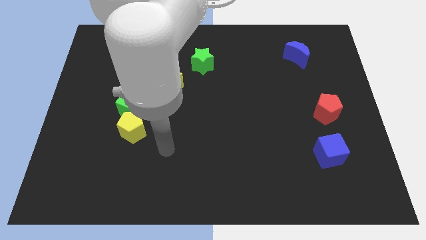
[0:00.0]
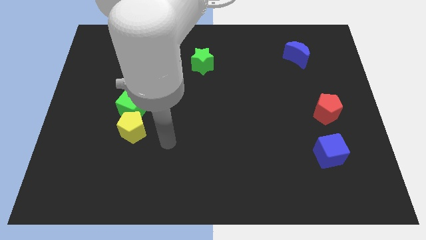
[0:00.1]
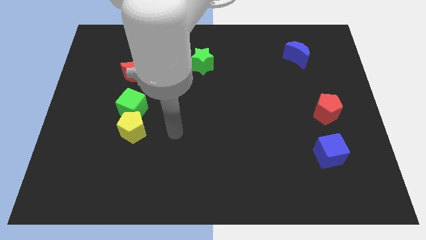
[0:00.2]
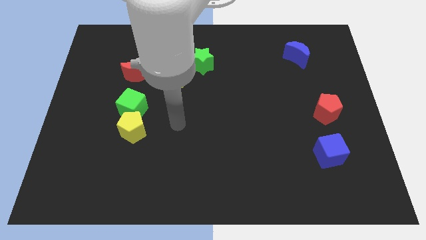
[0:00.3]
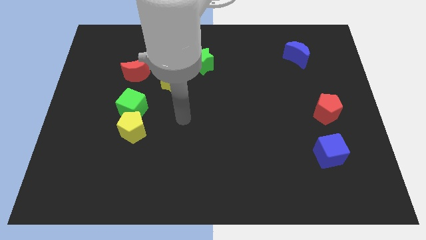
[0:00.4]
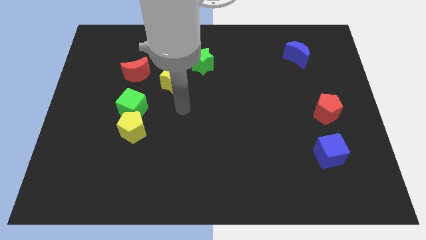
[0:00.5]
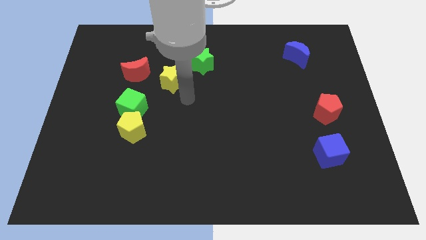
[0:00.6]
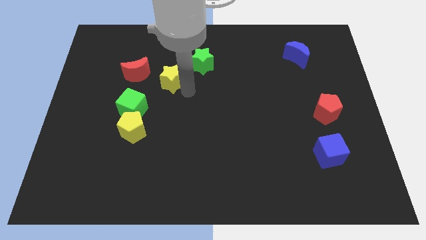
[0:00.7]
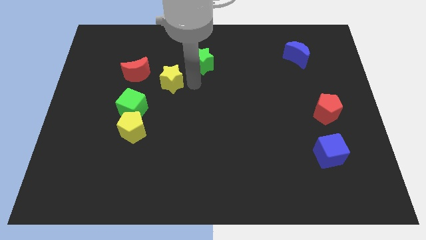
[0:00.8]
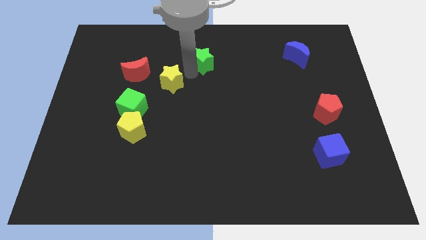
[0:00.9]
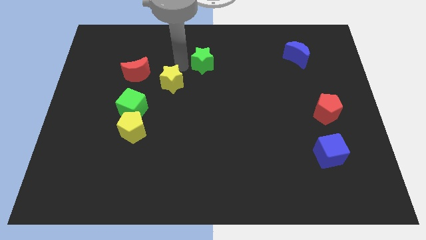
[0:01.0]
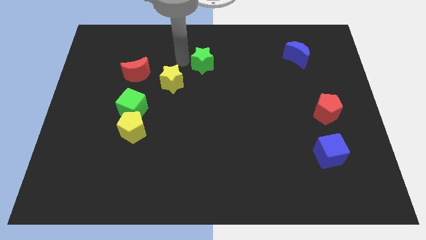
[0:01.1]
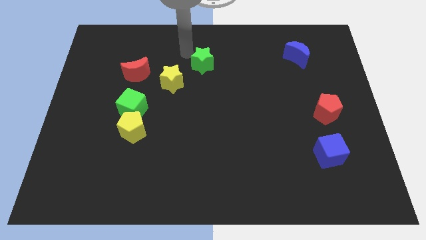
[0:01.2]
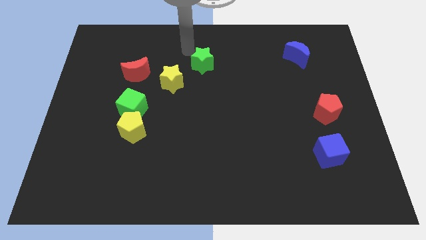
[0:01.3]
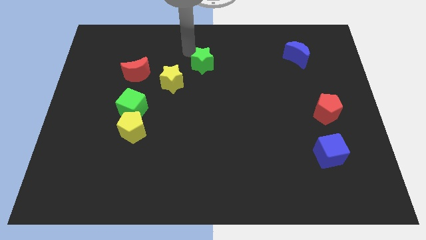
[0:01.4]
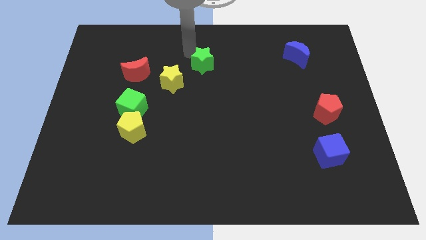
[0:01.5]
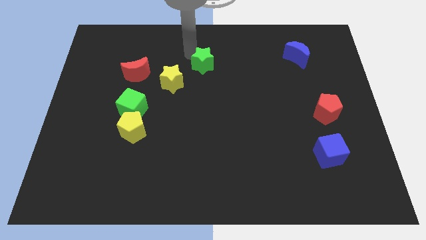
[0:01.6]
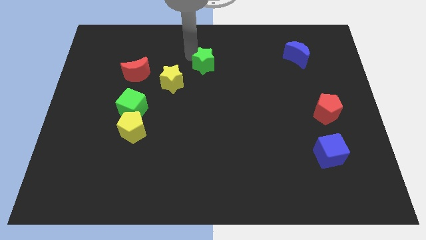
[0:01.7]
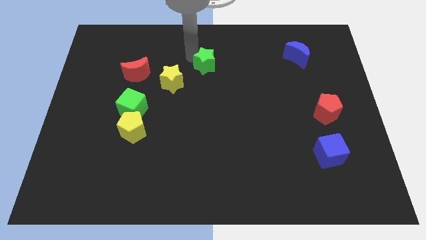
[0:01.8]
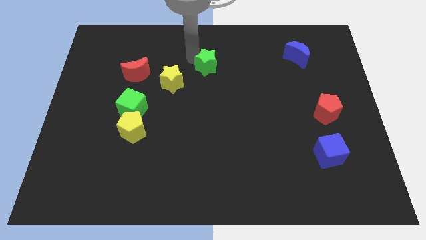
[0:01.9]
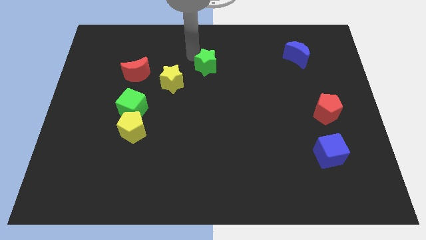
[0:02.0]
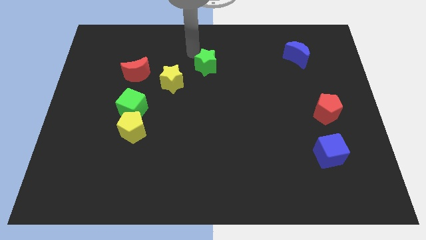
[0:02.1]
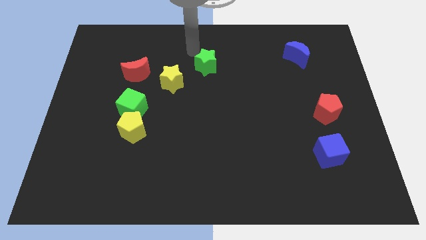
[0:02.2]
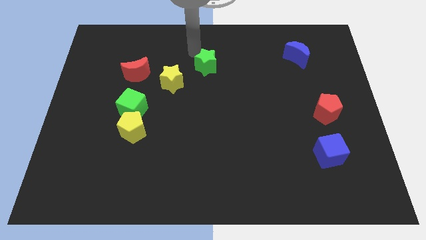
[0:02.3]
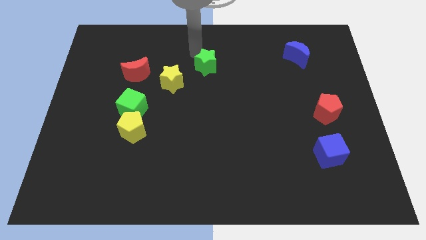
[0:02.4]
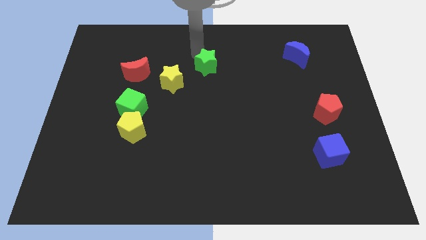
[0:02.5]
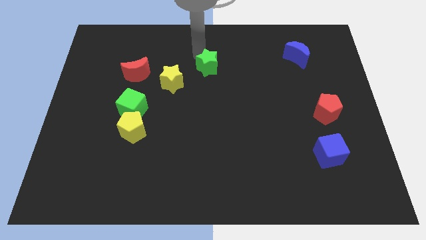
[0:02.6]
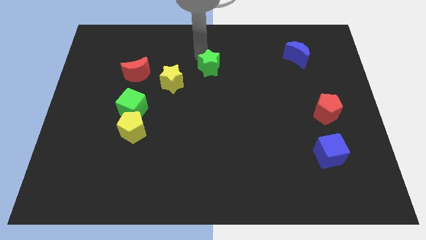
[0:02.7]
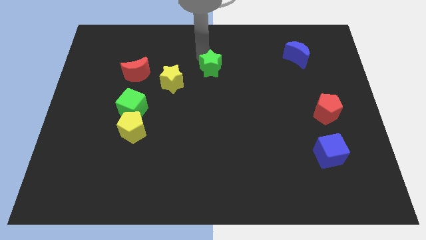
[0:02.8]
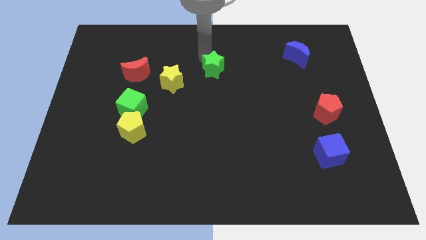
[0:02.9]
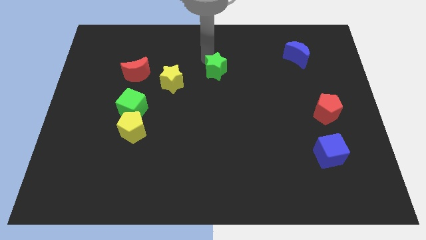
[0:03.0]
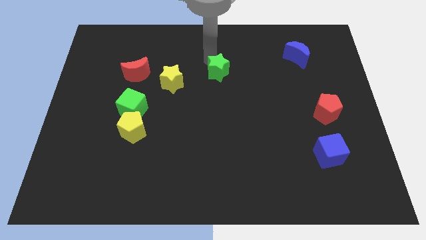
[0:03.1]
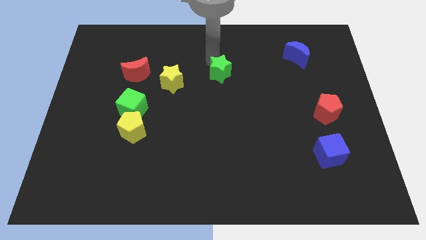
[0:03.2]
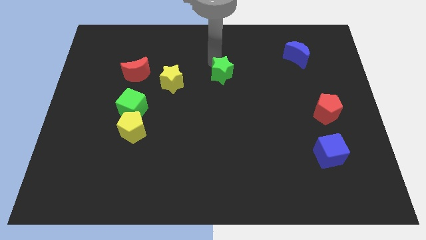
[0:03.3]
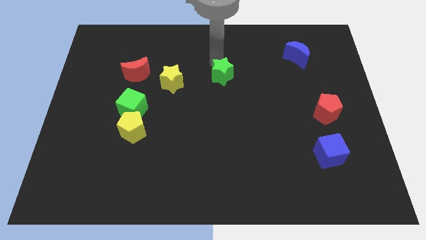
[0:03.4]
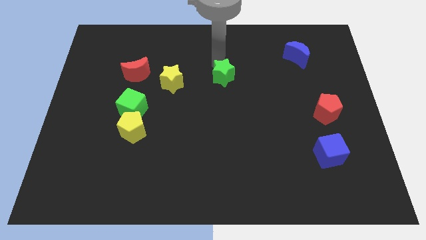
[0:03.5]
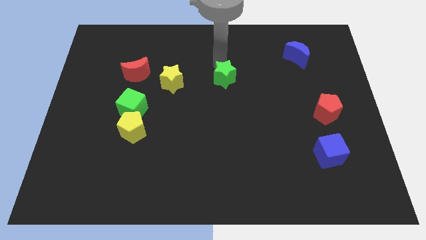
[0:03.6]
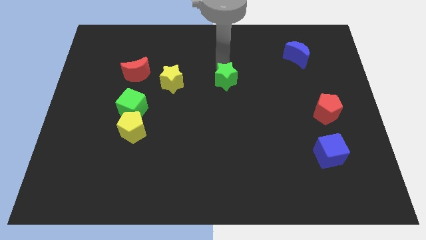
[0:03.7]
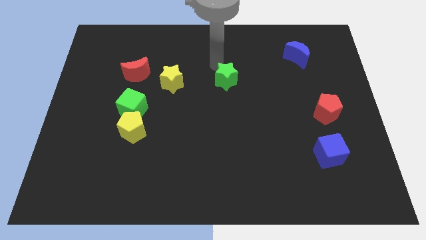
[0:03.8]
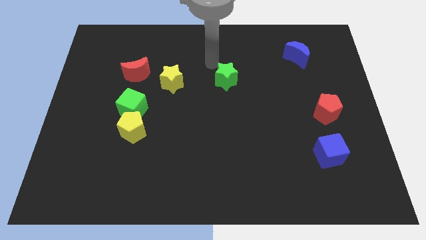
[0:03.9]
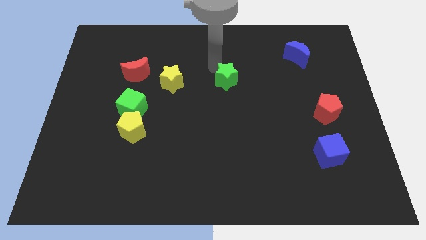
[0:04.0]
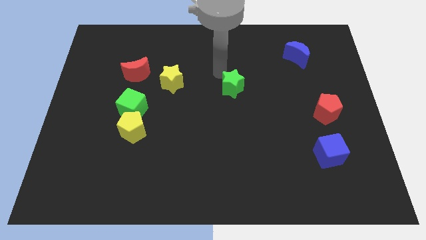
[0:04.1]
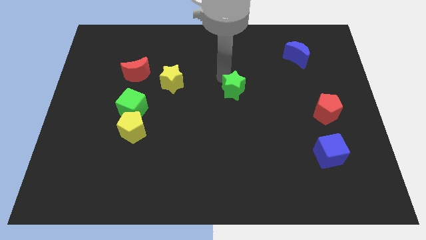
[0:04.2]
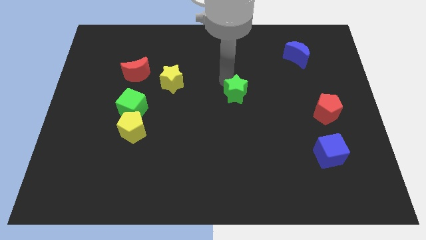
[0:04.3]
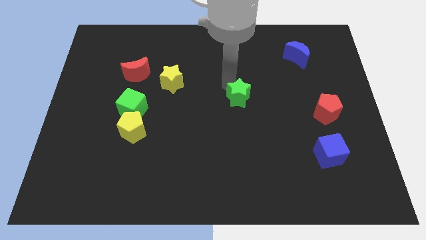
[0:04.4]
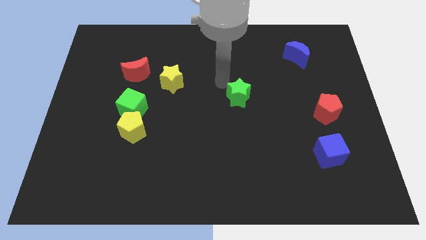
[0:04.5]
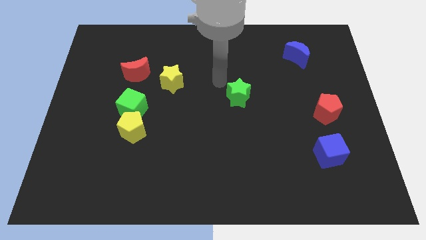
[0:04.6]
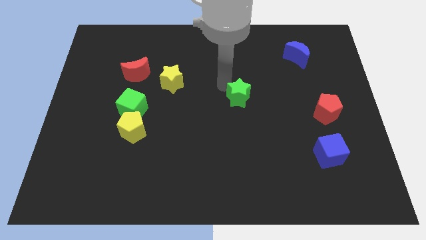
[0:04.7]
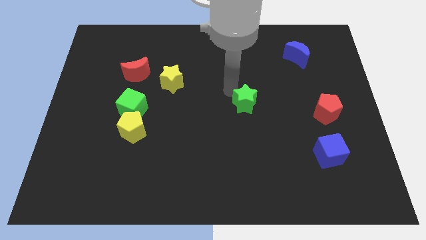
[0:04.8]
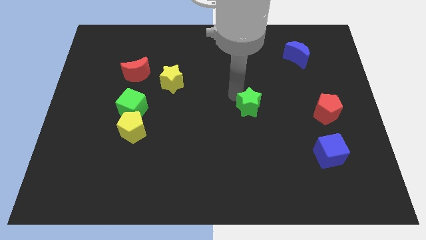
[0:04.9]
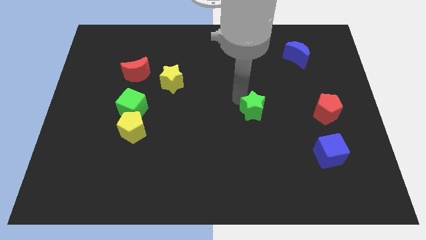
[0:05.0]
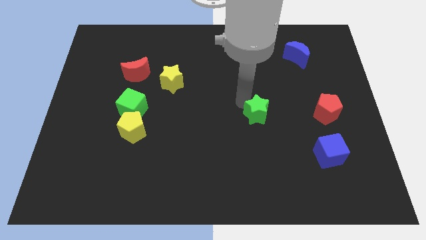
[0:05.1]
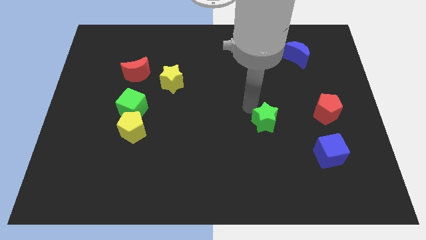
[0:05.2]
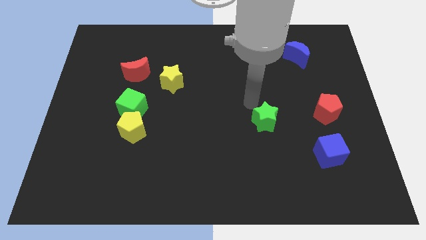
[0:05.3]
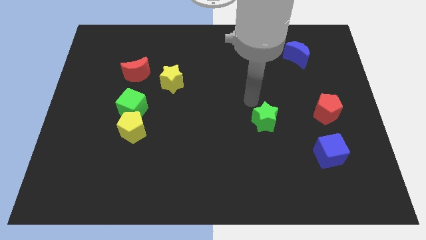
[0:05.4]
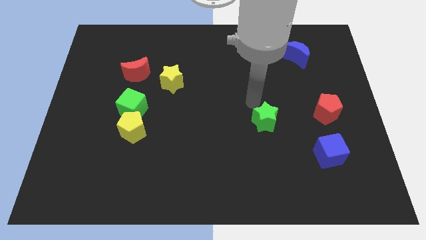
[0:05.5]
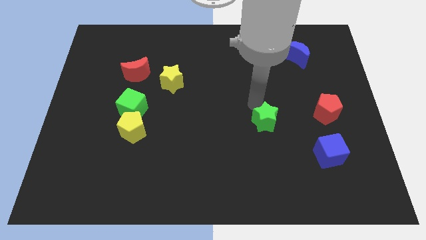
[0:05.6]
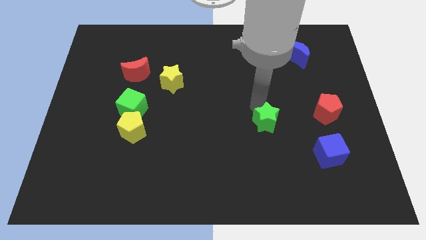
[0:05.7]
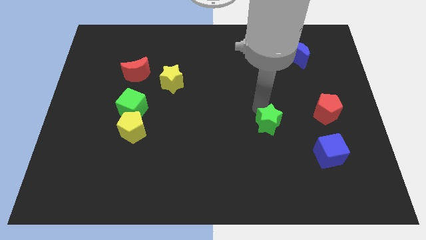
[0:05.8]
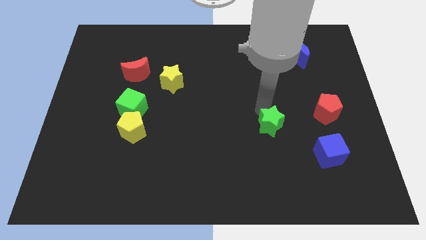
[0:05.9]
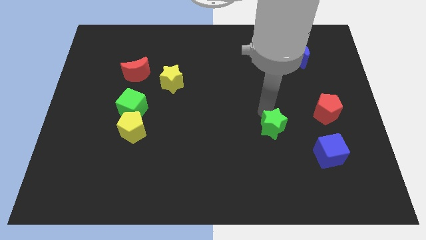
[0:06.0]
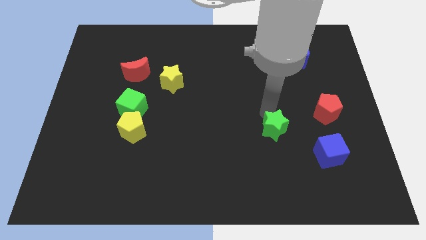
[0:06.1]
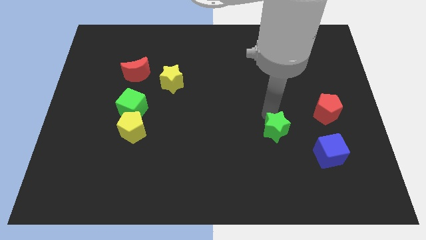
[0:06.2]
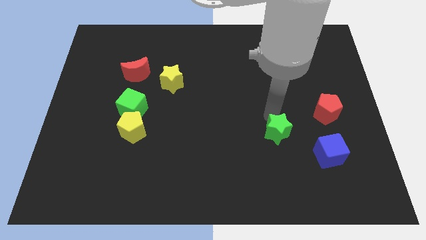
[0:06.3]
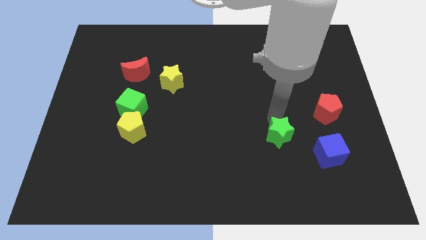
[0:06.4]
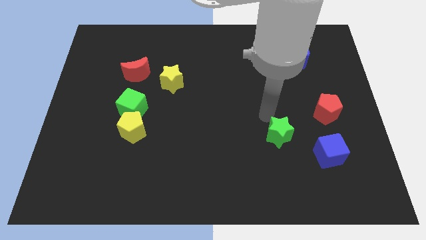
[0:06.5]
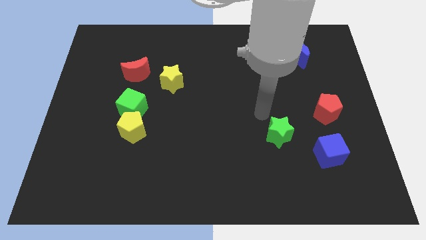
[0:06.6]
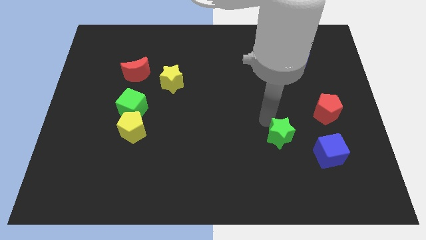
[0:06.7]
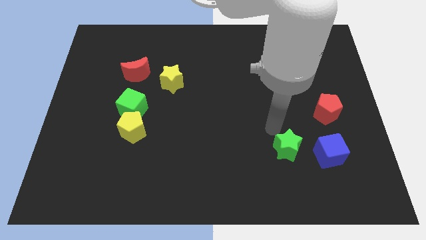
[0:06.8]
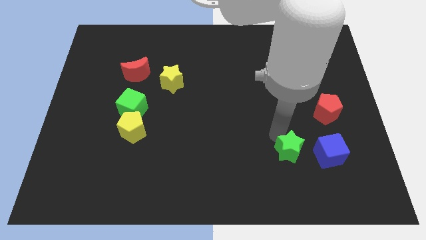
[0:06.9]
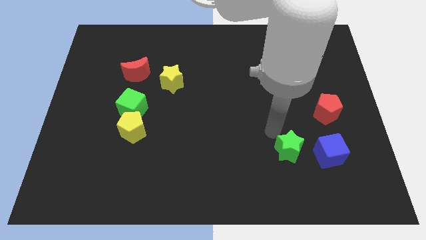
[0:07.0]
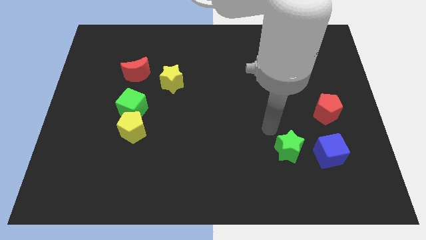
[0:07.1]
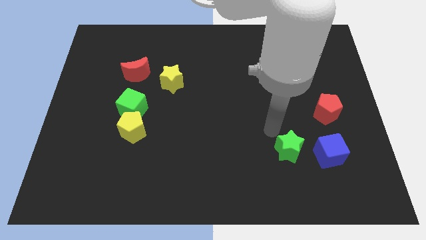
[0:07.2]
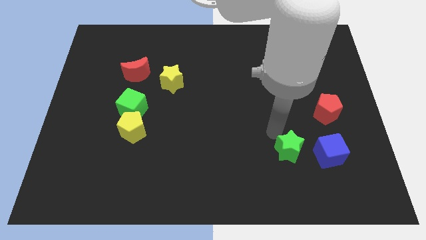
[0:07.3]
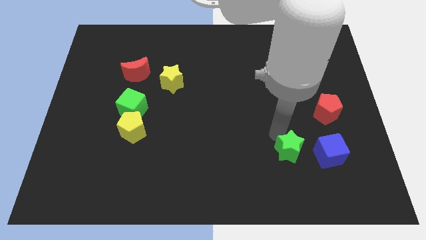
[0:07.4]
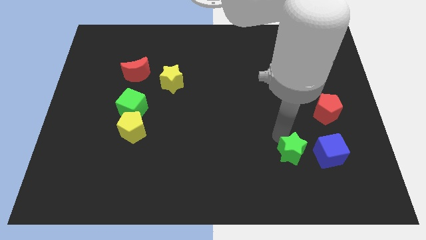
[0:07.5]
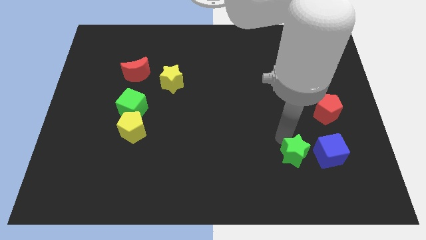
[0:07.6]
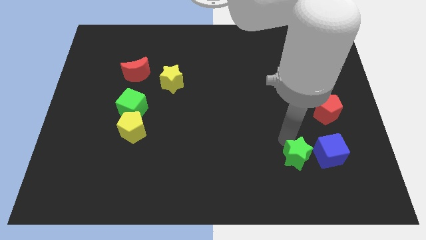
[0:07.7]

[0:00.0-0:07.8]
push the green star diagonally down and to the left of the blue cube

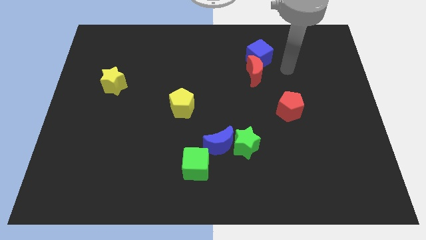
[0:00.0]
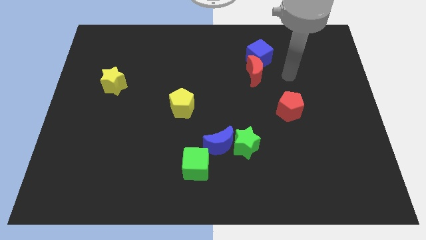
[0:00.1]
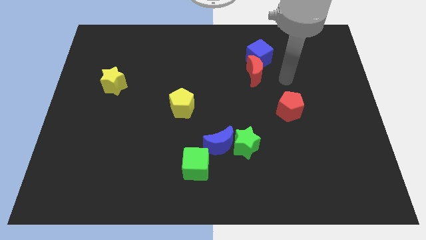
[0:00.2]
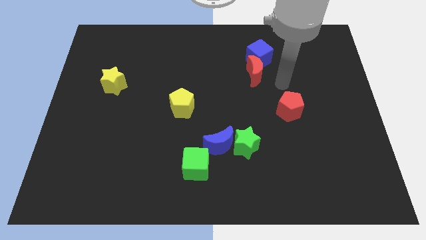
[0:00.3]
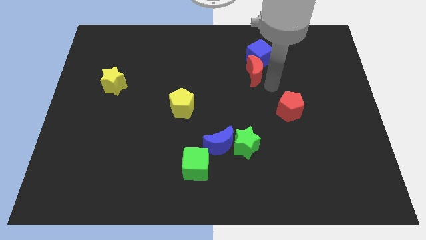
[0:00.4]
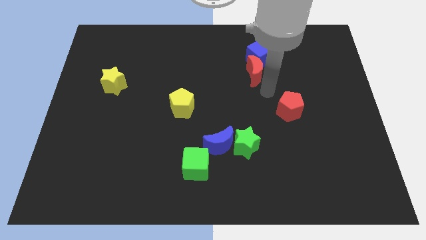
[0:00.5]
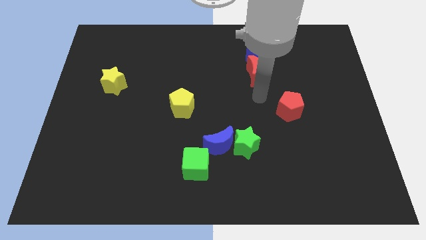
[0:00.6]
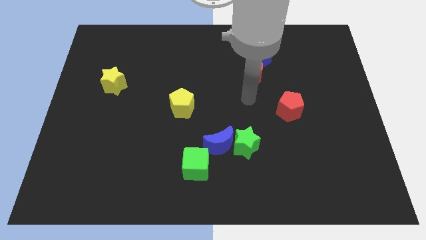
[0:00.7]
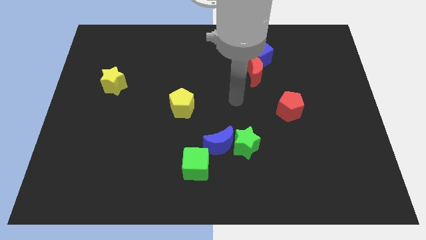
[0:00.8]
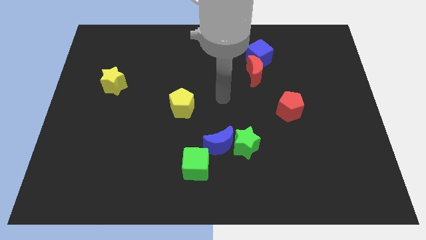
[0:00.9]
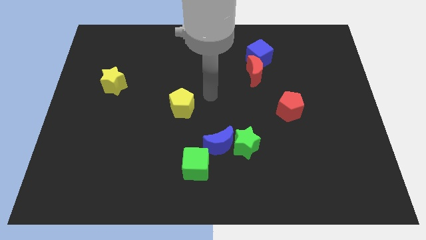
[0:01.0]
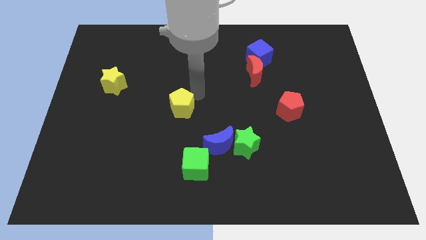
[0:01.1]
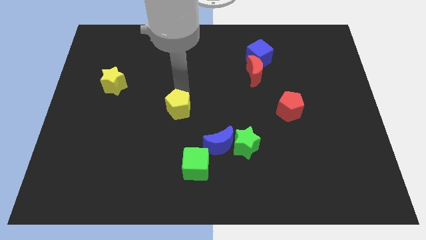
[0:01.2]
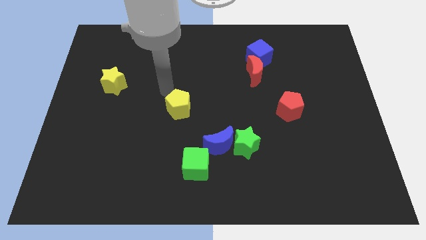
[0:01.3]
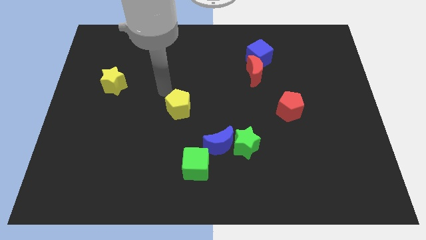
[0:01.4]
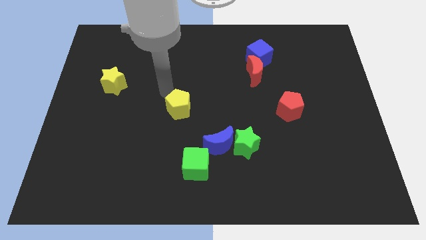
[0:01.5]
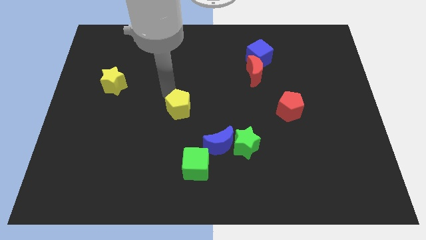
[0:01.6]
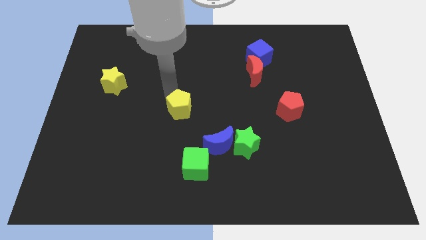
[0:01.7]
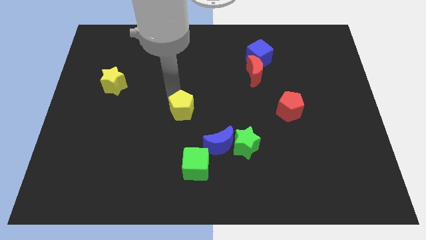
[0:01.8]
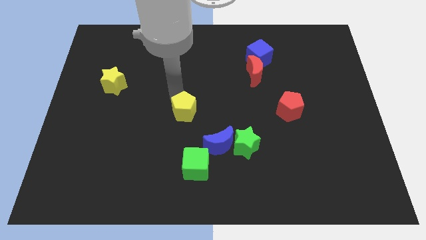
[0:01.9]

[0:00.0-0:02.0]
slide the yellow pentagon to the top left side of the blue moon
